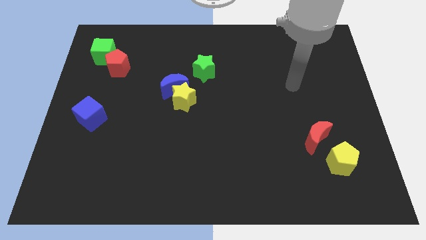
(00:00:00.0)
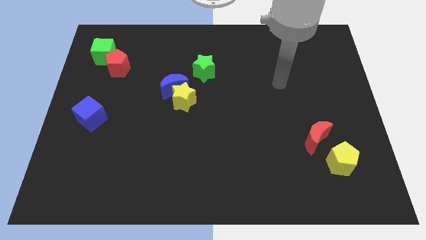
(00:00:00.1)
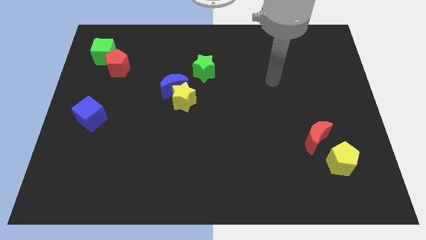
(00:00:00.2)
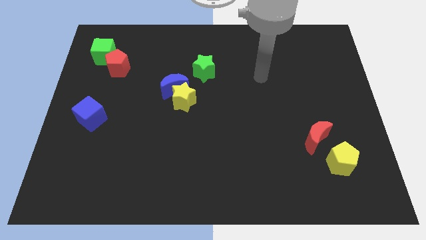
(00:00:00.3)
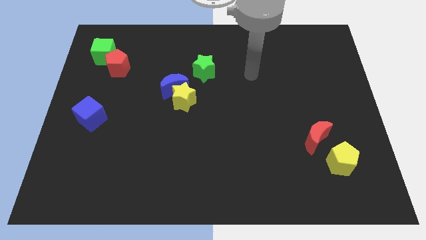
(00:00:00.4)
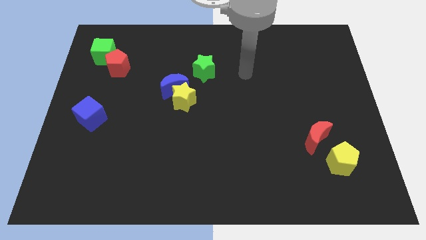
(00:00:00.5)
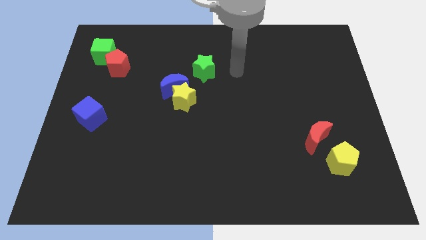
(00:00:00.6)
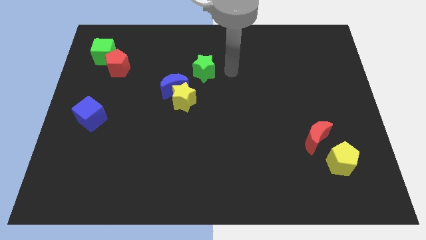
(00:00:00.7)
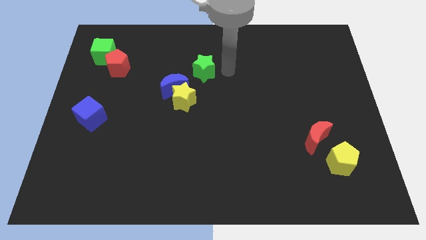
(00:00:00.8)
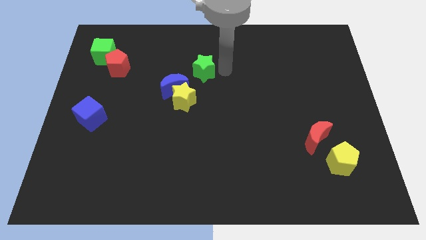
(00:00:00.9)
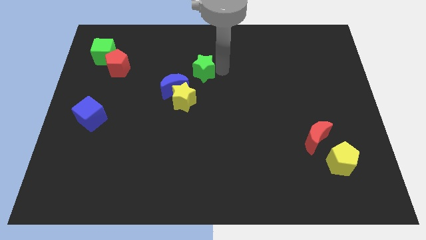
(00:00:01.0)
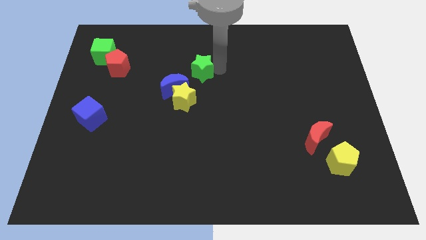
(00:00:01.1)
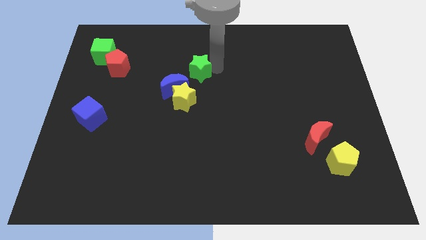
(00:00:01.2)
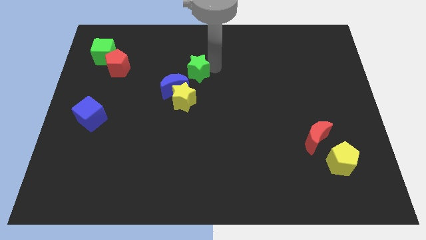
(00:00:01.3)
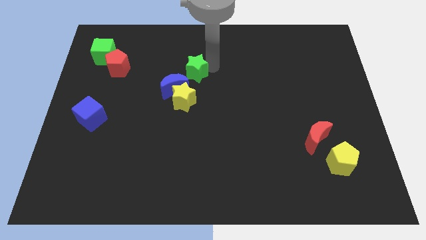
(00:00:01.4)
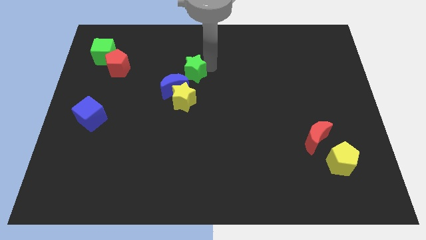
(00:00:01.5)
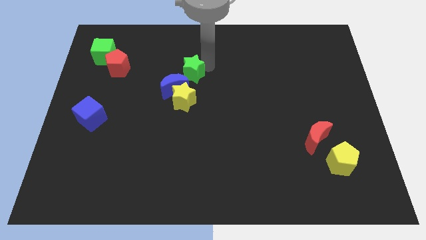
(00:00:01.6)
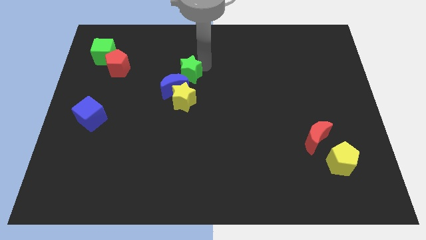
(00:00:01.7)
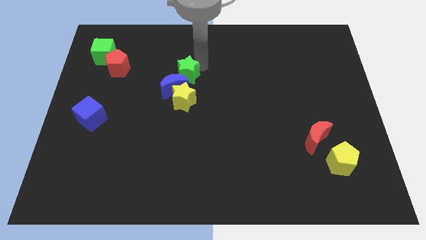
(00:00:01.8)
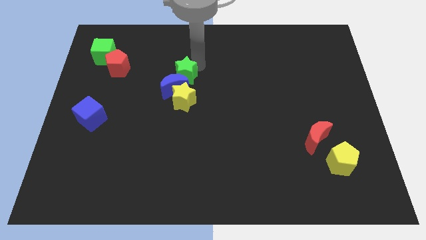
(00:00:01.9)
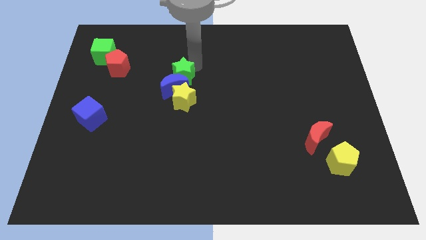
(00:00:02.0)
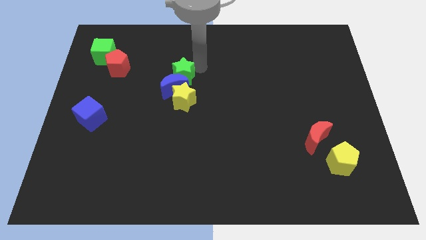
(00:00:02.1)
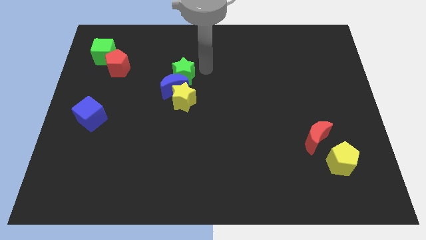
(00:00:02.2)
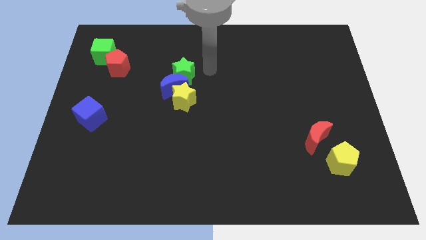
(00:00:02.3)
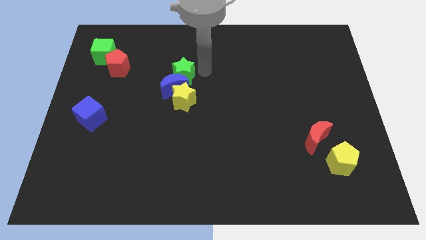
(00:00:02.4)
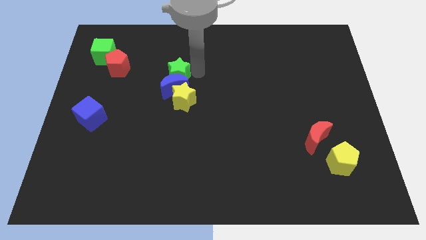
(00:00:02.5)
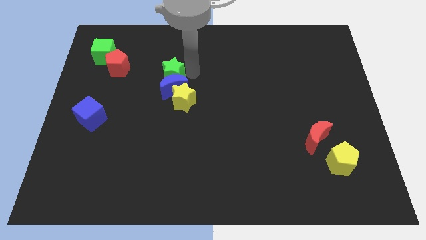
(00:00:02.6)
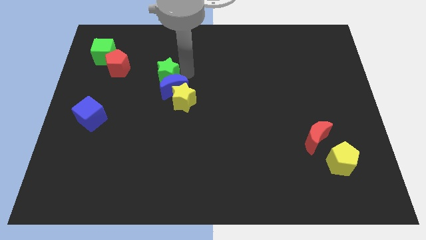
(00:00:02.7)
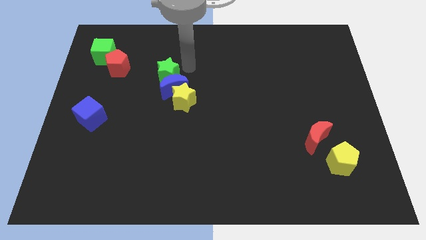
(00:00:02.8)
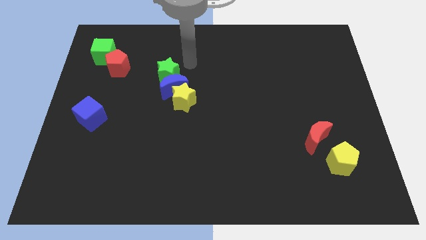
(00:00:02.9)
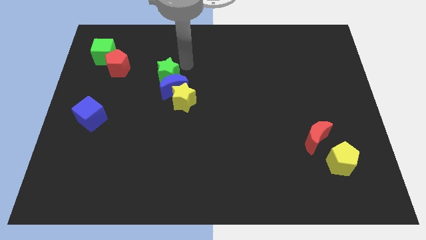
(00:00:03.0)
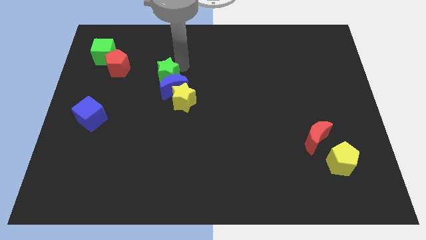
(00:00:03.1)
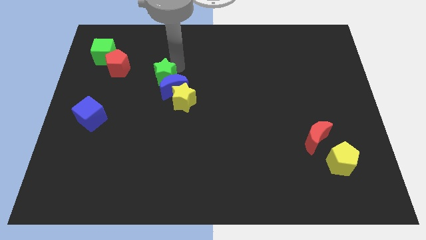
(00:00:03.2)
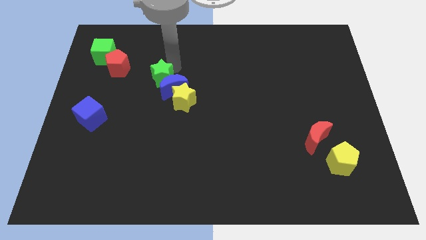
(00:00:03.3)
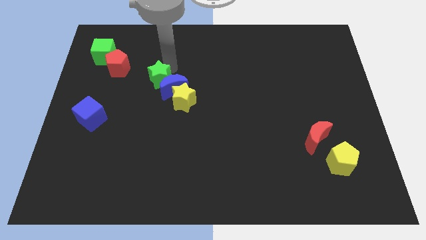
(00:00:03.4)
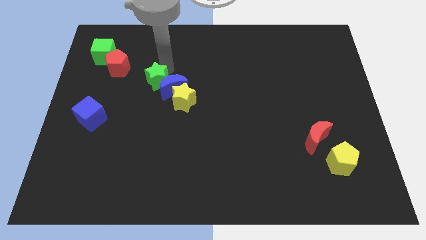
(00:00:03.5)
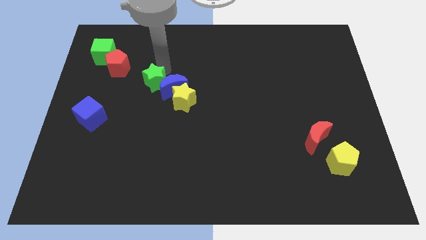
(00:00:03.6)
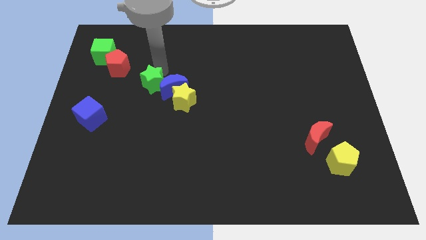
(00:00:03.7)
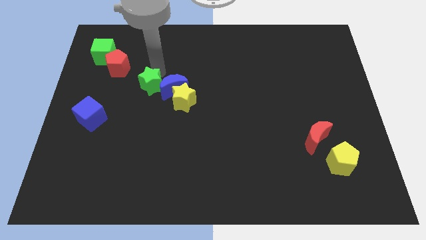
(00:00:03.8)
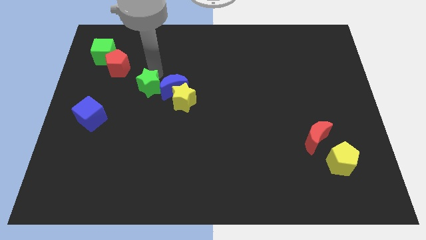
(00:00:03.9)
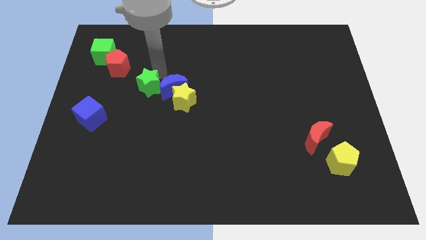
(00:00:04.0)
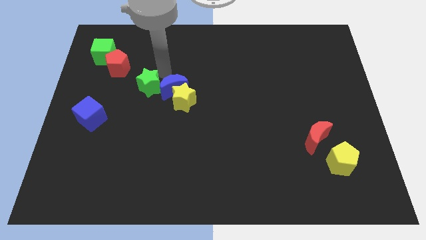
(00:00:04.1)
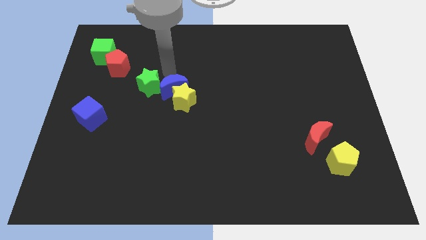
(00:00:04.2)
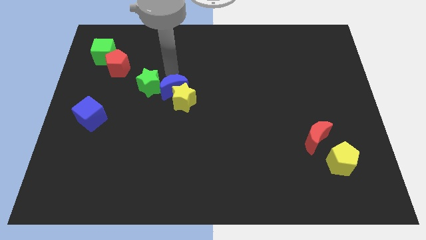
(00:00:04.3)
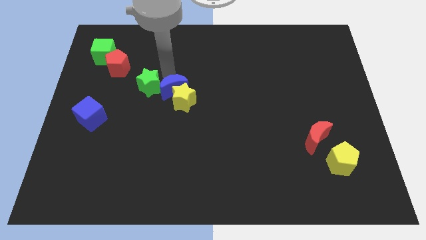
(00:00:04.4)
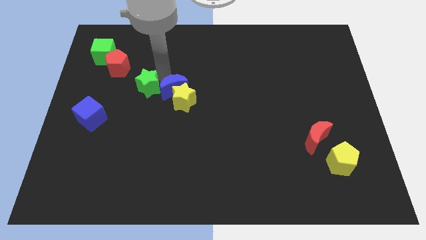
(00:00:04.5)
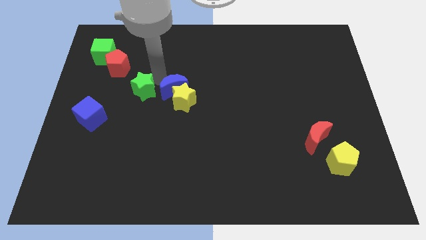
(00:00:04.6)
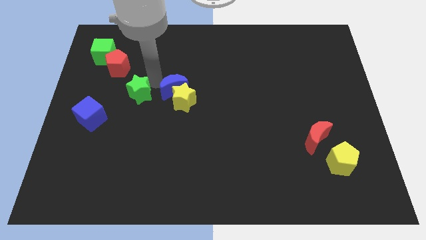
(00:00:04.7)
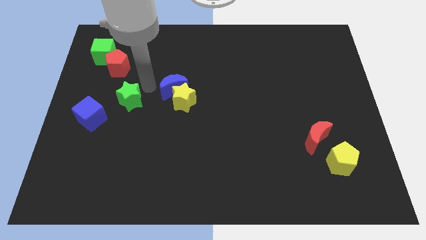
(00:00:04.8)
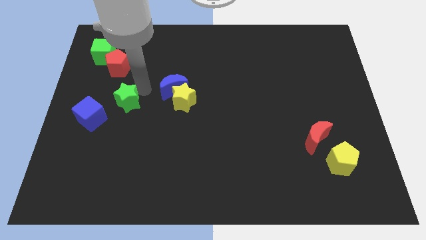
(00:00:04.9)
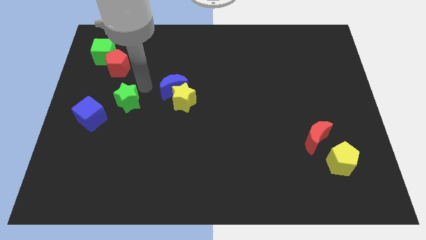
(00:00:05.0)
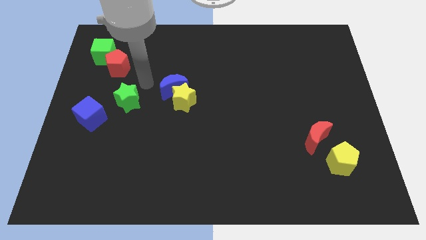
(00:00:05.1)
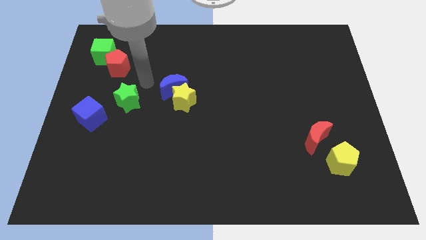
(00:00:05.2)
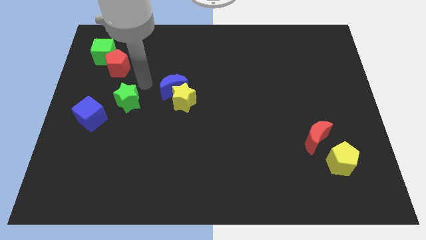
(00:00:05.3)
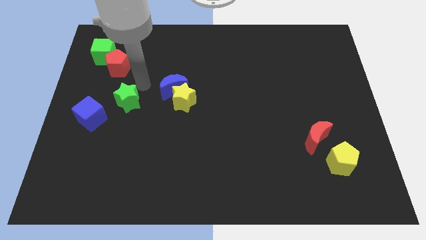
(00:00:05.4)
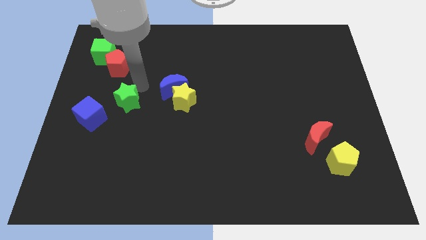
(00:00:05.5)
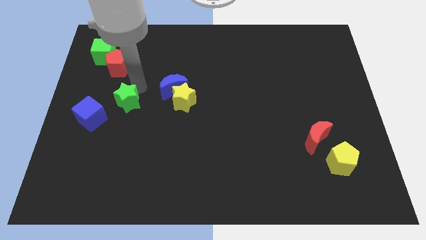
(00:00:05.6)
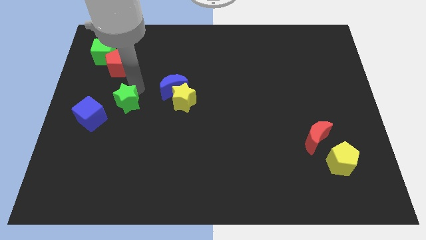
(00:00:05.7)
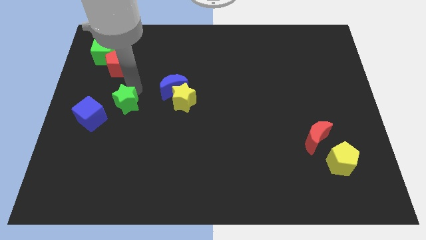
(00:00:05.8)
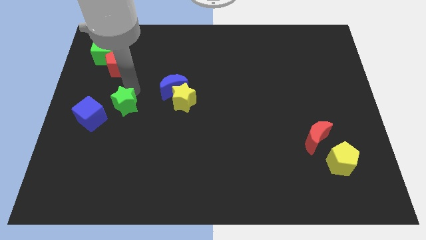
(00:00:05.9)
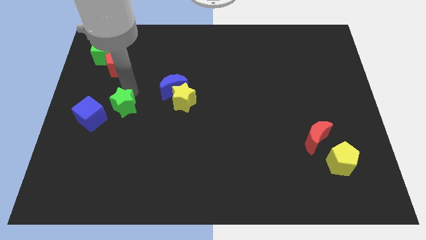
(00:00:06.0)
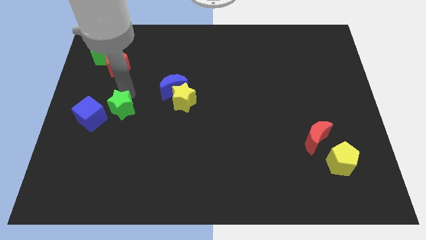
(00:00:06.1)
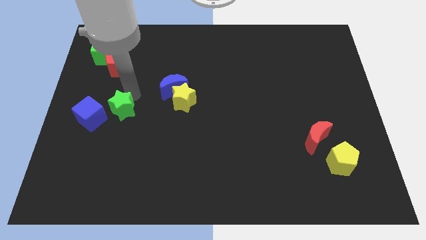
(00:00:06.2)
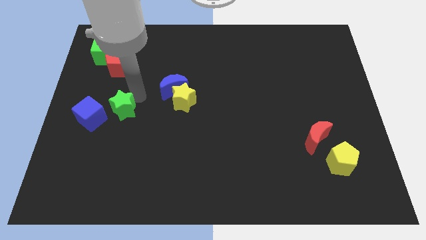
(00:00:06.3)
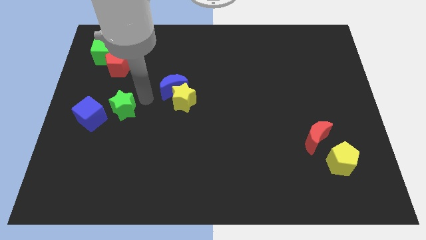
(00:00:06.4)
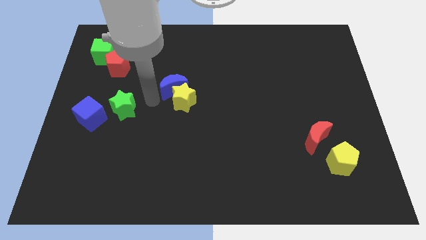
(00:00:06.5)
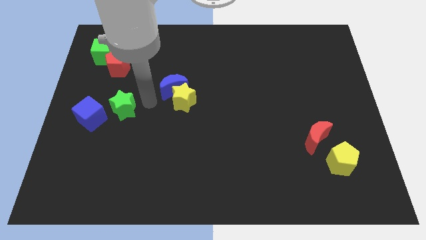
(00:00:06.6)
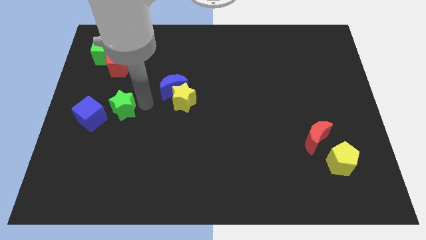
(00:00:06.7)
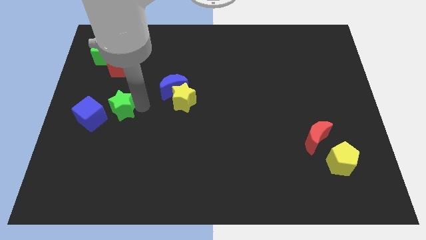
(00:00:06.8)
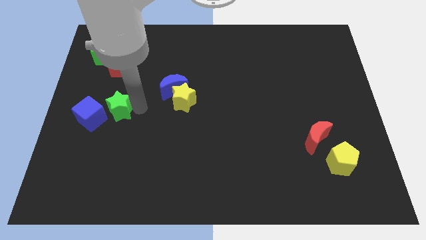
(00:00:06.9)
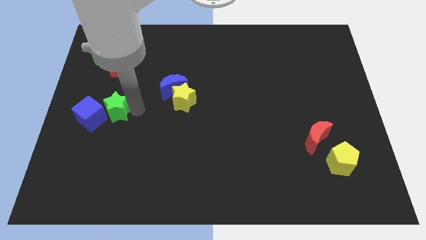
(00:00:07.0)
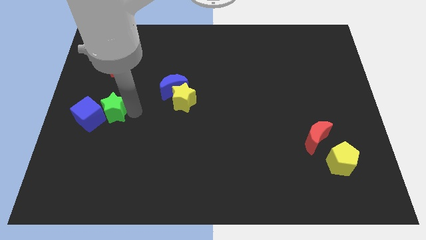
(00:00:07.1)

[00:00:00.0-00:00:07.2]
move the green star next to the blue cube
